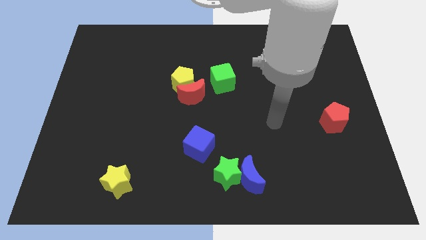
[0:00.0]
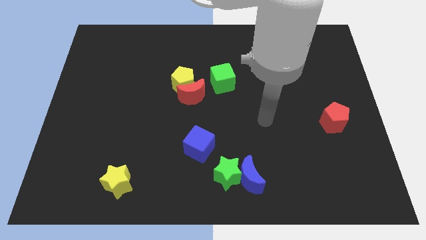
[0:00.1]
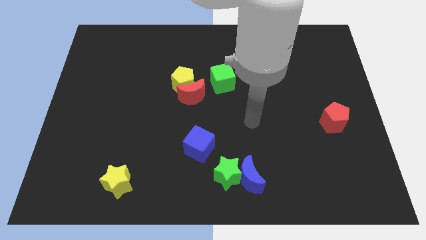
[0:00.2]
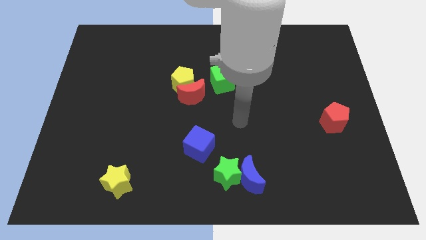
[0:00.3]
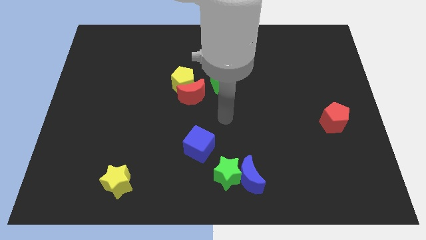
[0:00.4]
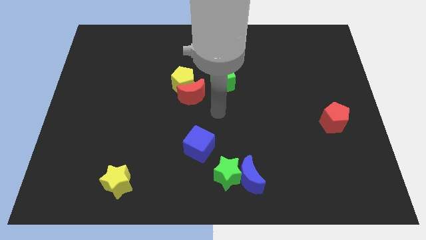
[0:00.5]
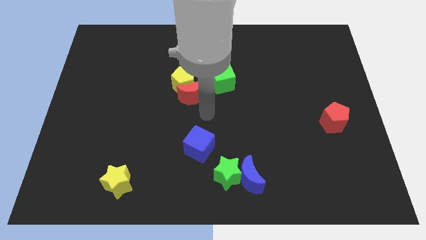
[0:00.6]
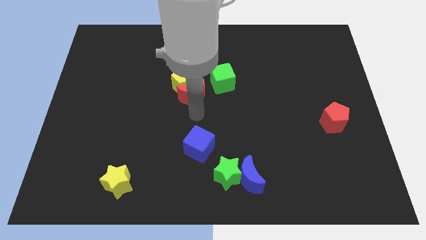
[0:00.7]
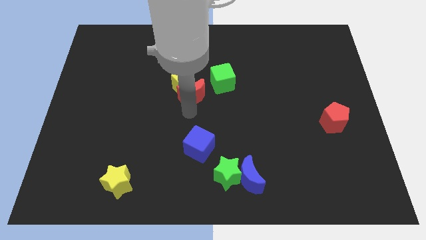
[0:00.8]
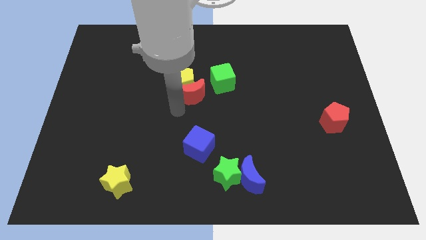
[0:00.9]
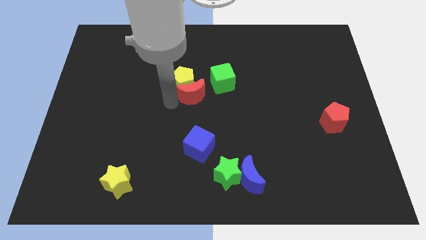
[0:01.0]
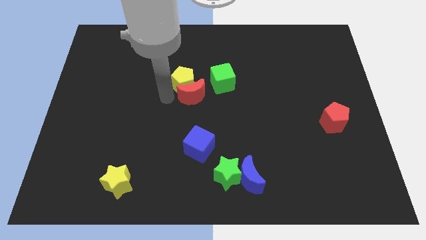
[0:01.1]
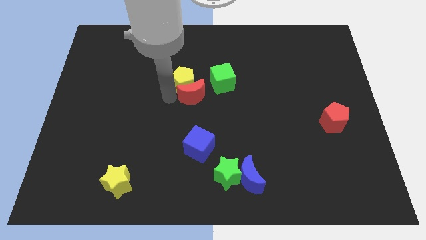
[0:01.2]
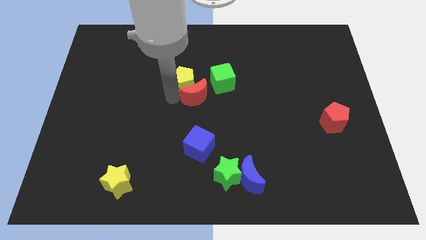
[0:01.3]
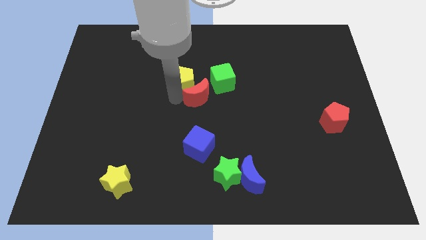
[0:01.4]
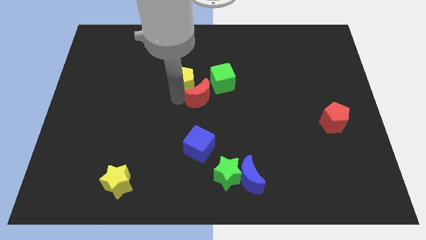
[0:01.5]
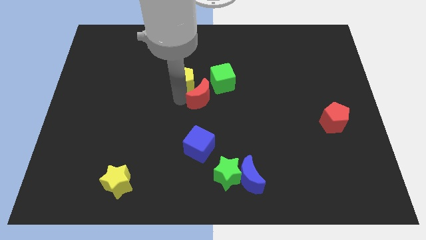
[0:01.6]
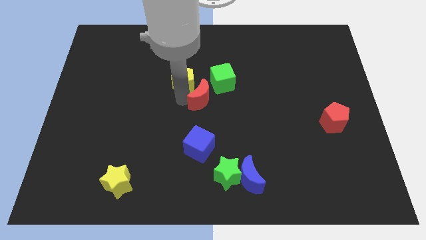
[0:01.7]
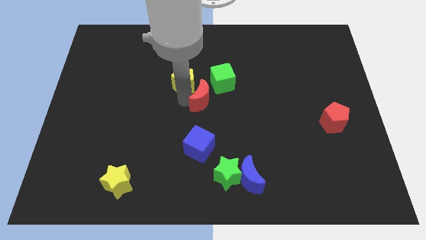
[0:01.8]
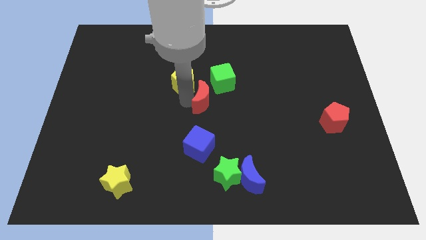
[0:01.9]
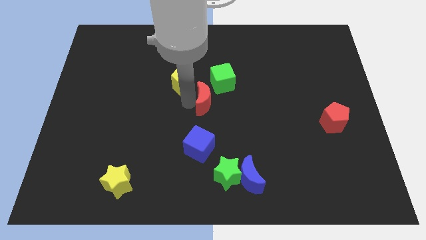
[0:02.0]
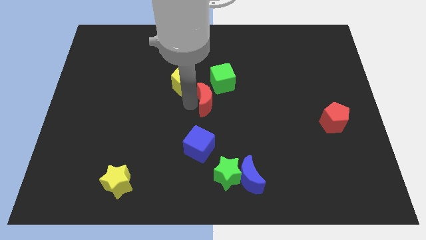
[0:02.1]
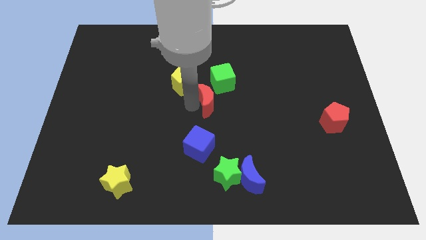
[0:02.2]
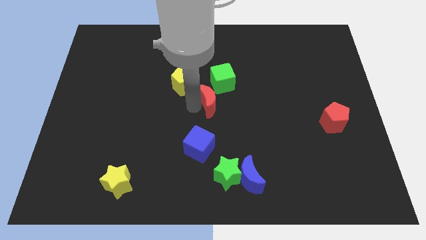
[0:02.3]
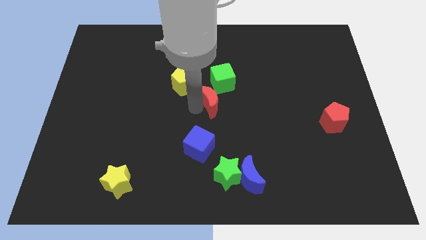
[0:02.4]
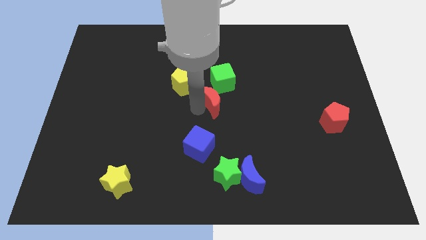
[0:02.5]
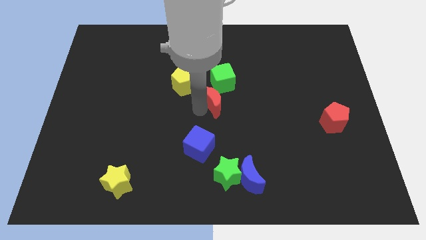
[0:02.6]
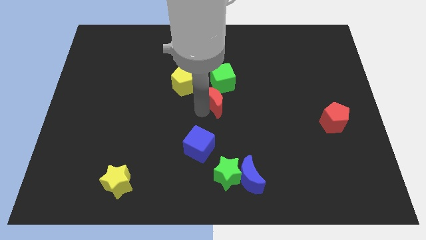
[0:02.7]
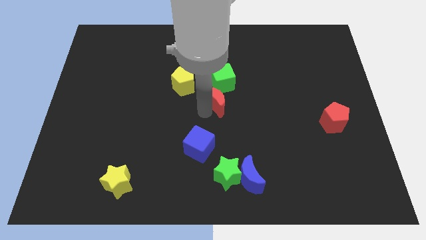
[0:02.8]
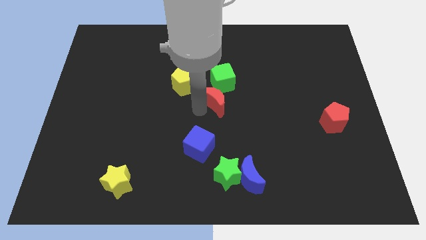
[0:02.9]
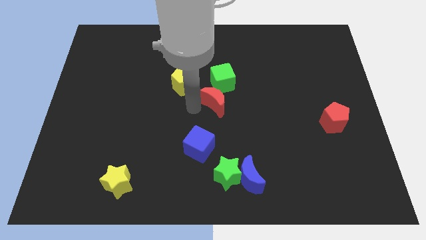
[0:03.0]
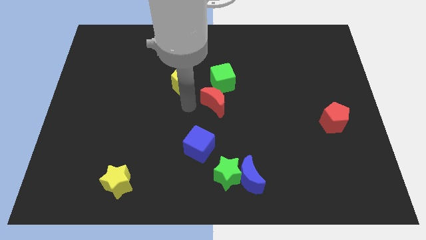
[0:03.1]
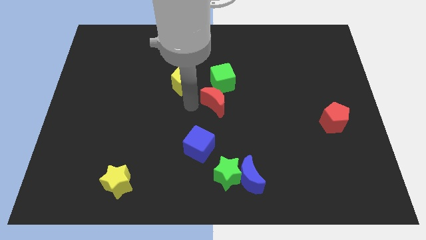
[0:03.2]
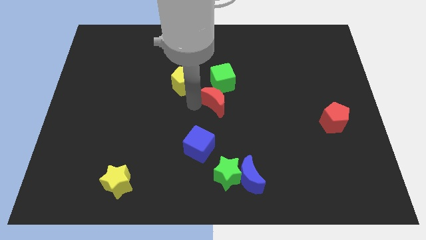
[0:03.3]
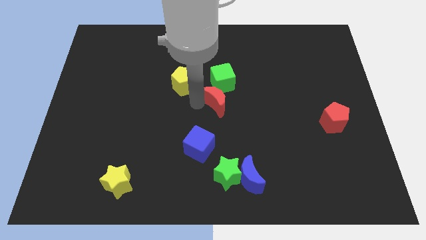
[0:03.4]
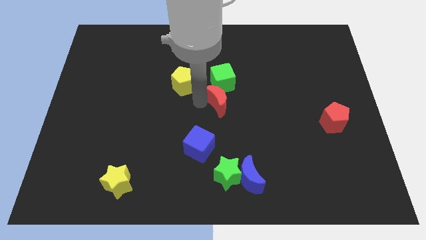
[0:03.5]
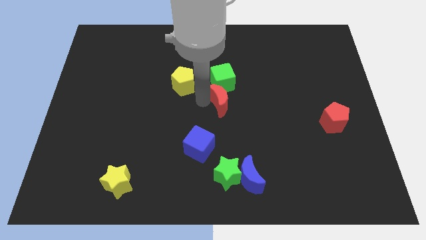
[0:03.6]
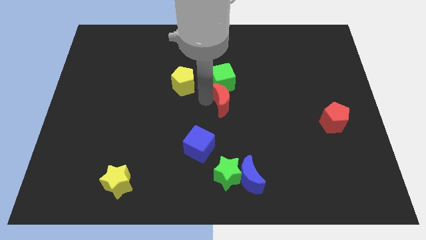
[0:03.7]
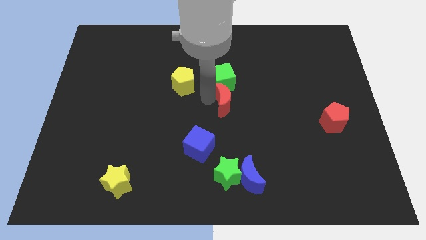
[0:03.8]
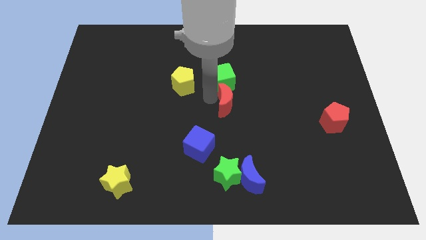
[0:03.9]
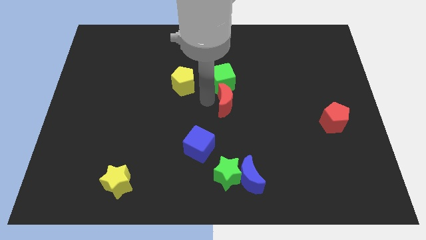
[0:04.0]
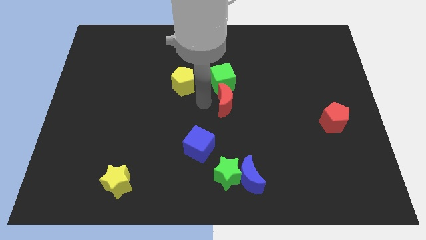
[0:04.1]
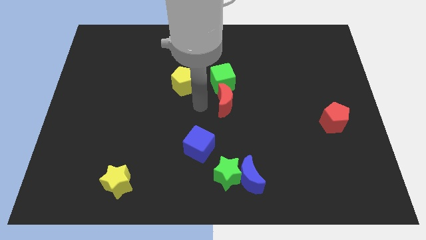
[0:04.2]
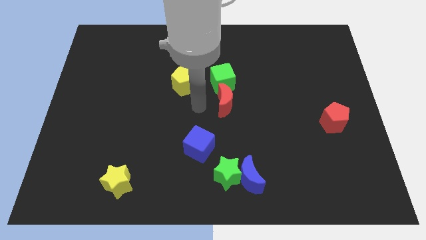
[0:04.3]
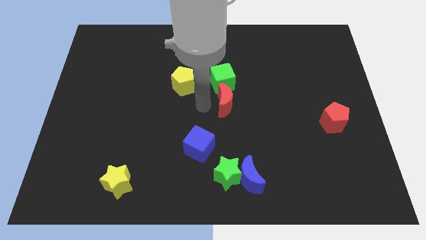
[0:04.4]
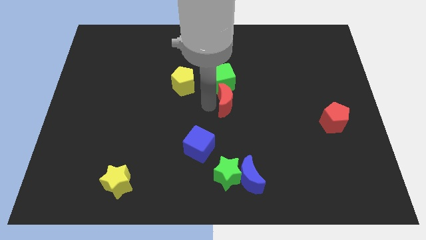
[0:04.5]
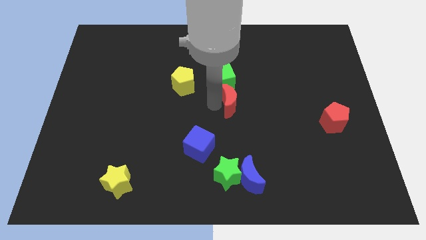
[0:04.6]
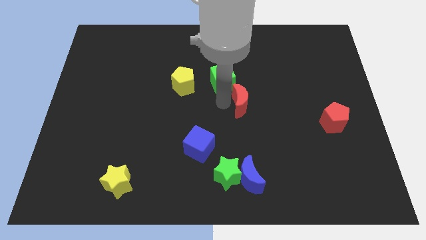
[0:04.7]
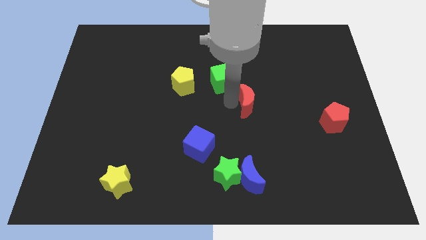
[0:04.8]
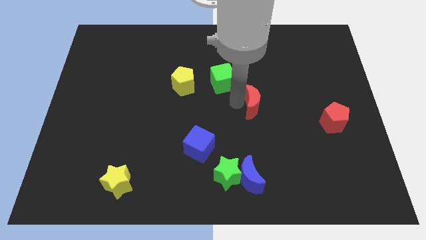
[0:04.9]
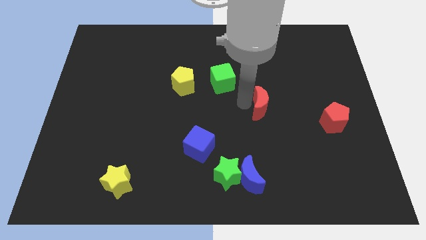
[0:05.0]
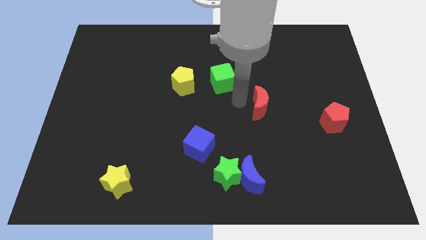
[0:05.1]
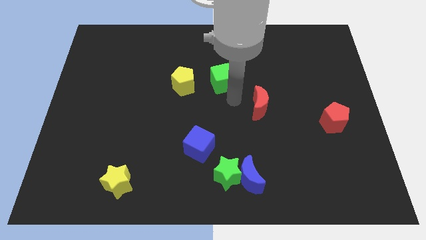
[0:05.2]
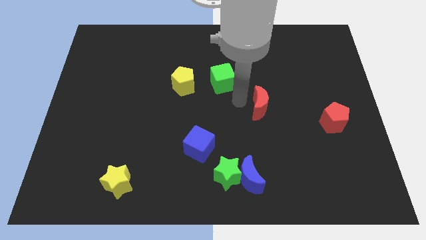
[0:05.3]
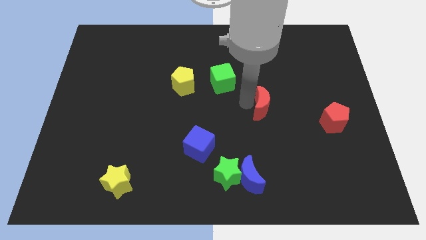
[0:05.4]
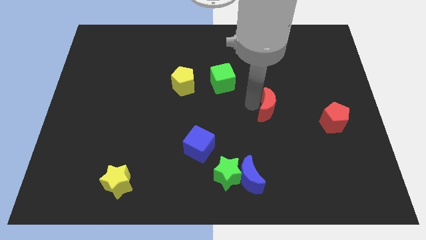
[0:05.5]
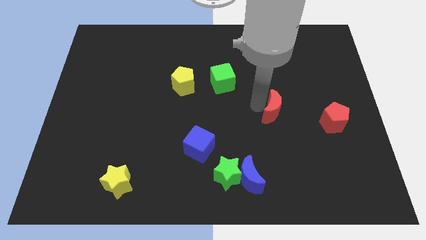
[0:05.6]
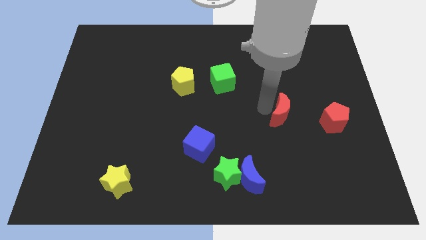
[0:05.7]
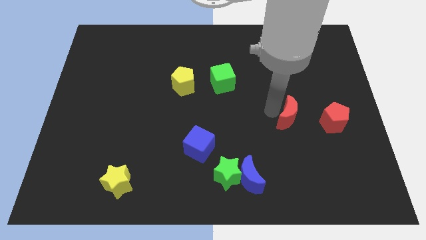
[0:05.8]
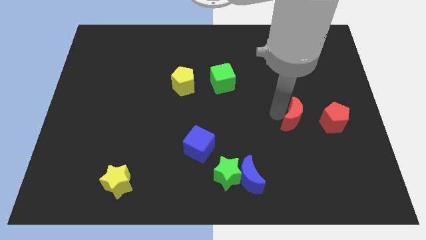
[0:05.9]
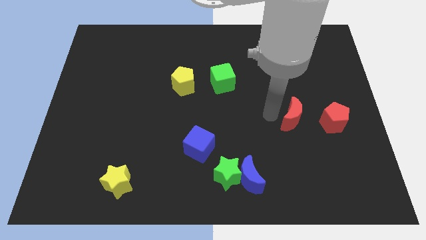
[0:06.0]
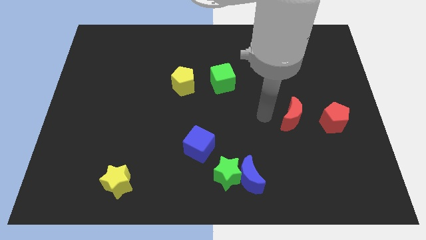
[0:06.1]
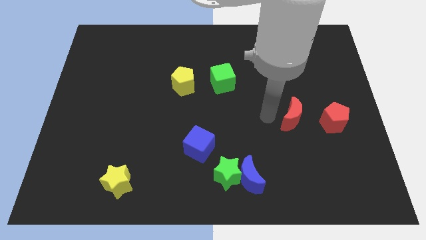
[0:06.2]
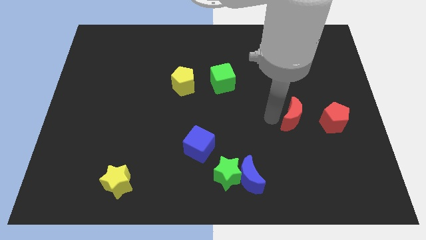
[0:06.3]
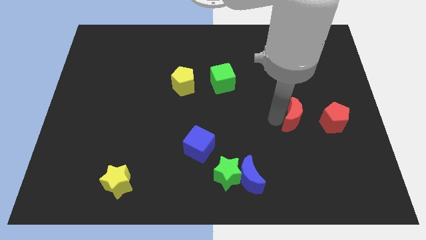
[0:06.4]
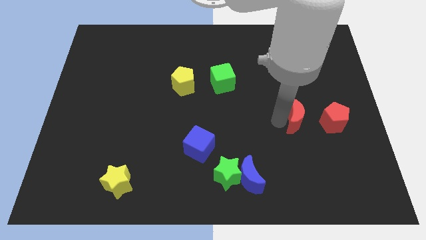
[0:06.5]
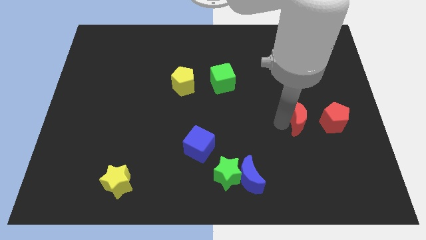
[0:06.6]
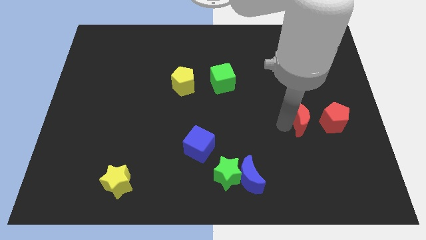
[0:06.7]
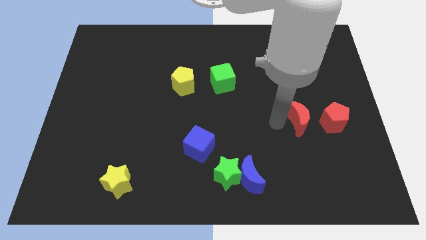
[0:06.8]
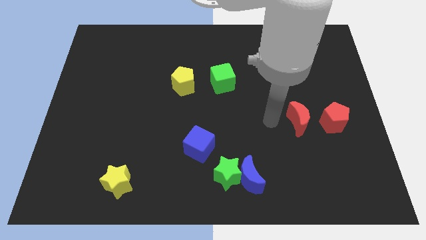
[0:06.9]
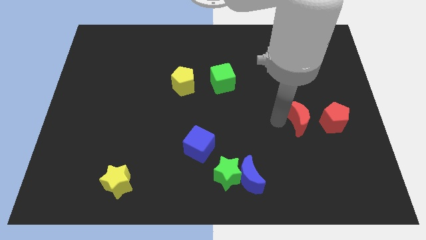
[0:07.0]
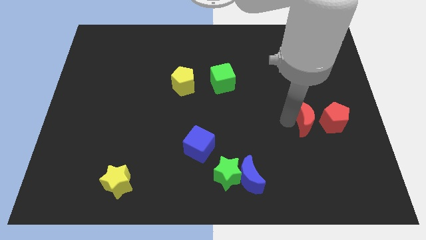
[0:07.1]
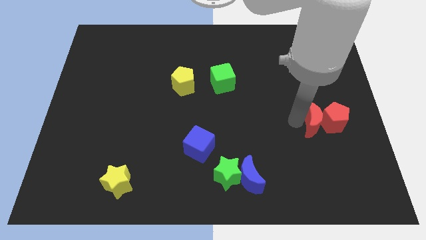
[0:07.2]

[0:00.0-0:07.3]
slide the red moon next to the red pentagon
